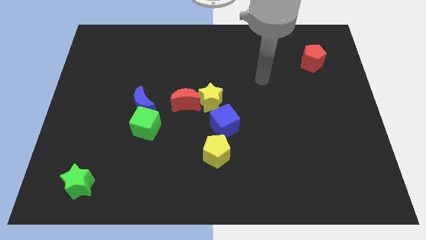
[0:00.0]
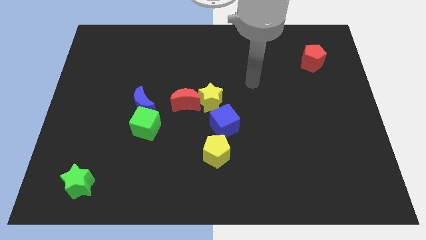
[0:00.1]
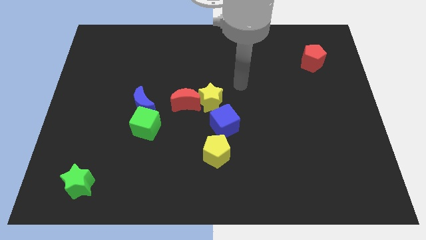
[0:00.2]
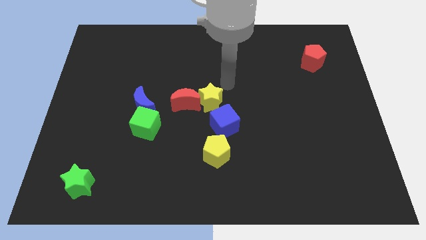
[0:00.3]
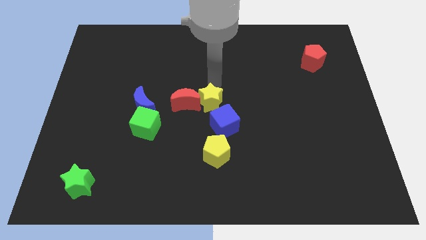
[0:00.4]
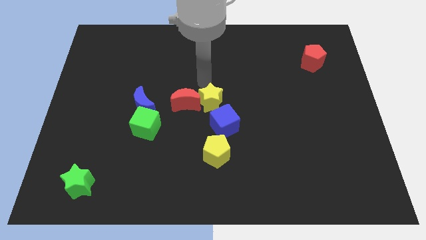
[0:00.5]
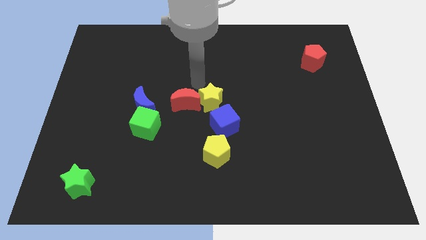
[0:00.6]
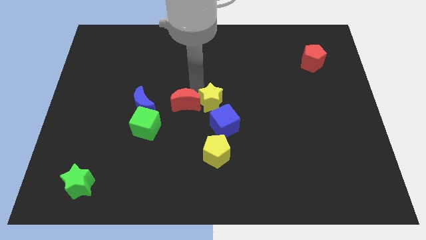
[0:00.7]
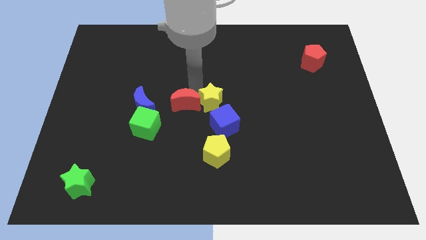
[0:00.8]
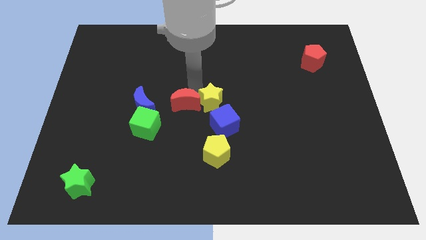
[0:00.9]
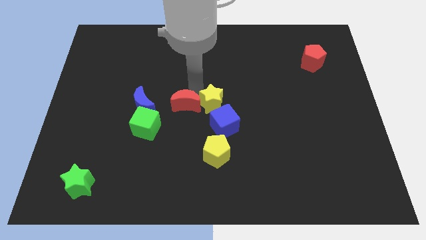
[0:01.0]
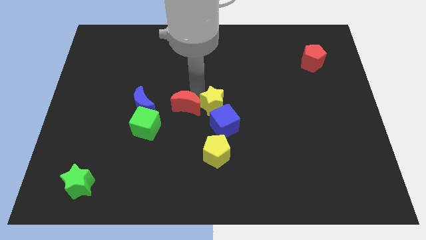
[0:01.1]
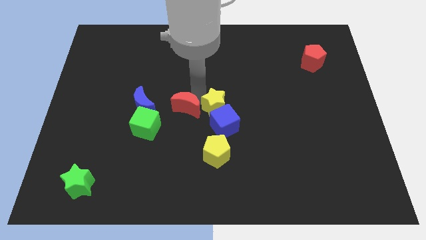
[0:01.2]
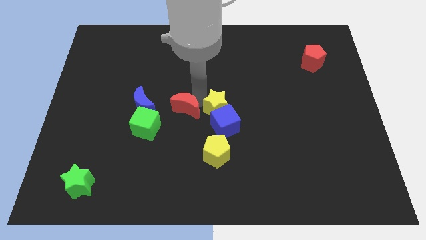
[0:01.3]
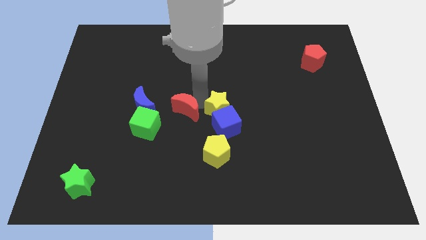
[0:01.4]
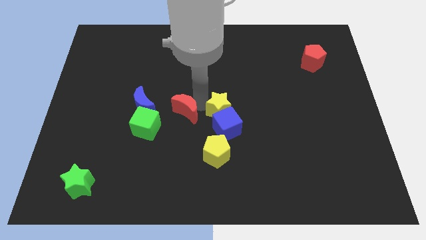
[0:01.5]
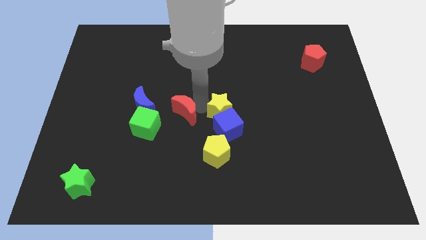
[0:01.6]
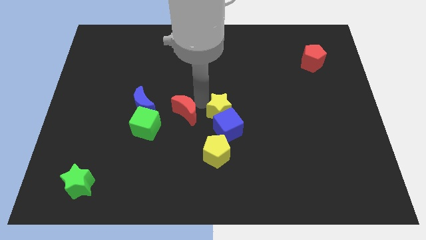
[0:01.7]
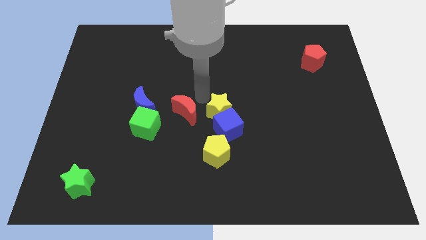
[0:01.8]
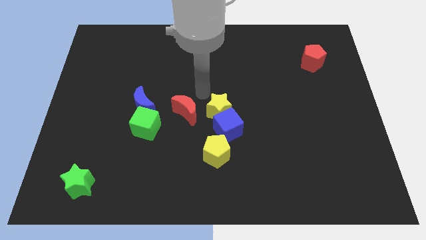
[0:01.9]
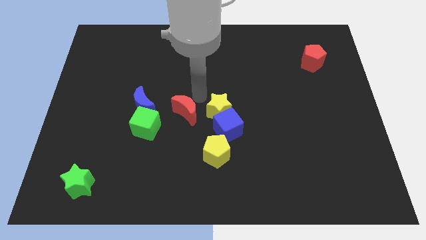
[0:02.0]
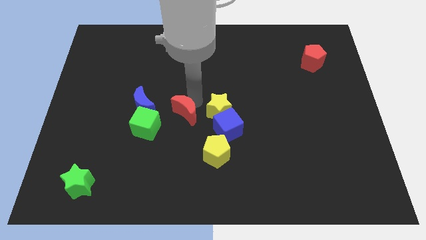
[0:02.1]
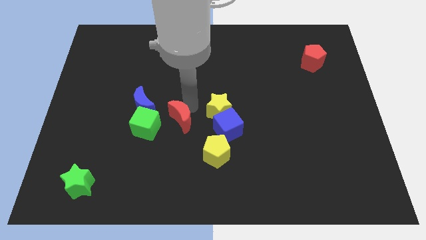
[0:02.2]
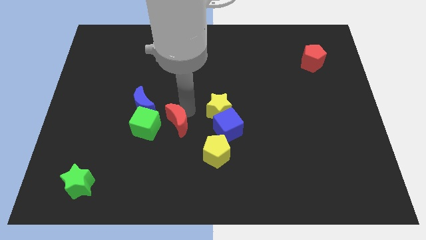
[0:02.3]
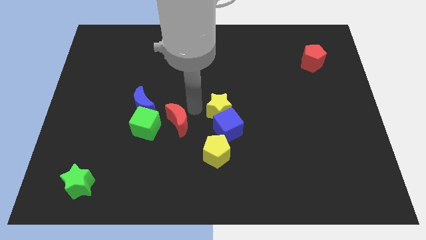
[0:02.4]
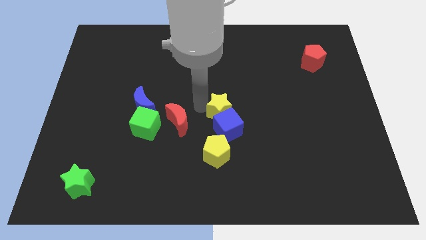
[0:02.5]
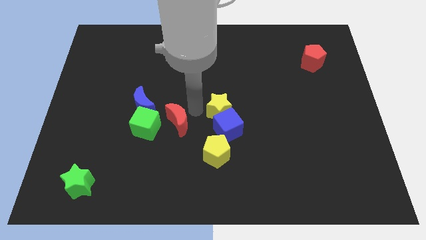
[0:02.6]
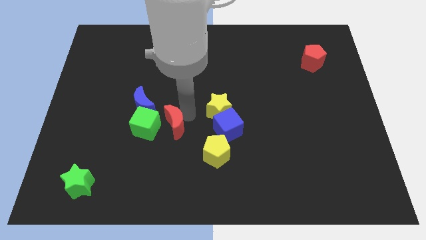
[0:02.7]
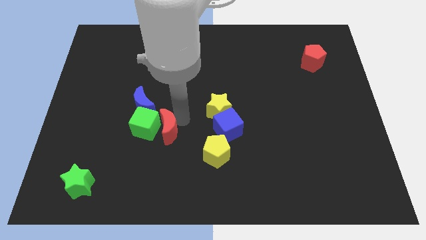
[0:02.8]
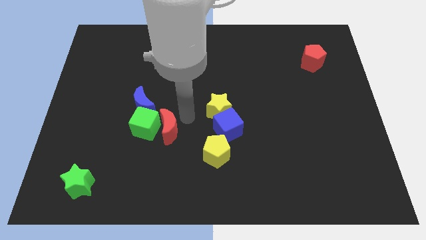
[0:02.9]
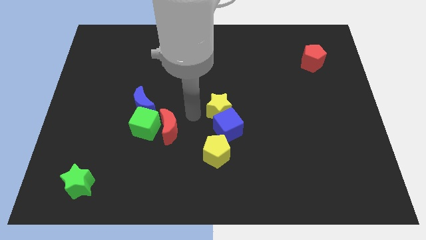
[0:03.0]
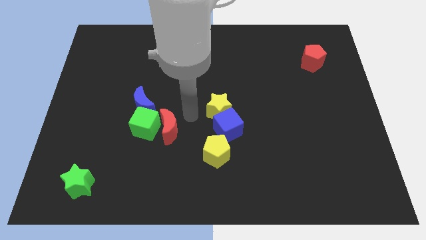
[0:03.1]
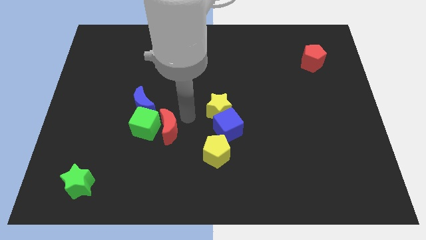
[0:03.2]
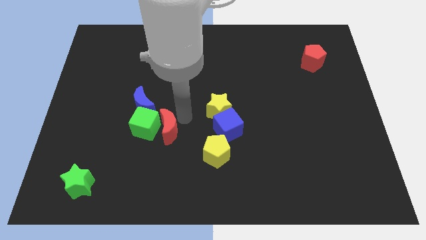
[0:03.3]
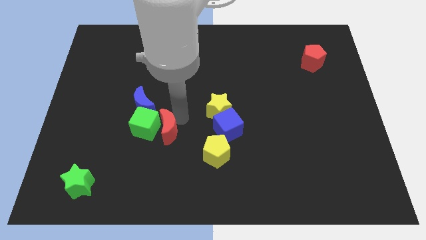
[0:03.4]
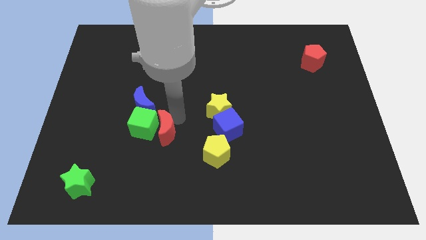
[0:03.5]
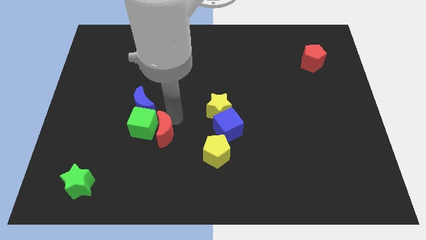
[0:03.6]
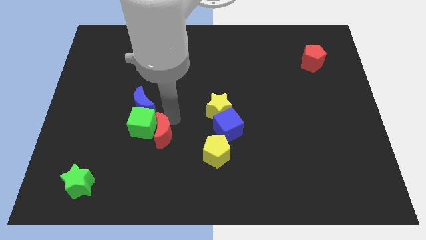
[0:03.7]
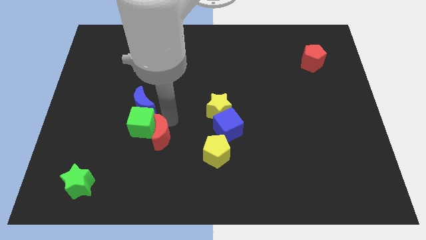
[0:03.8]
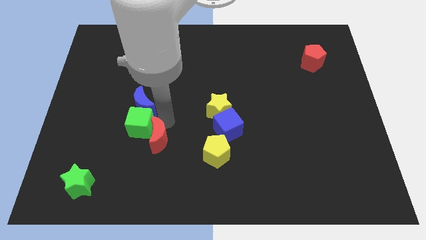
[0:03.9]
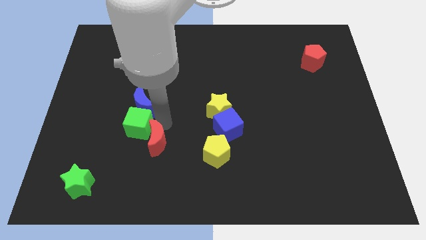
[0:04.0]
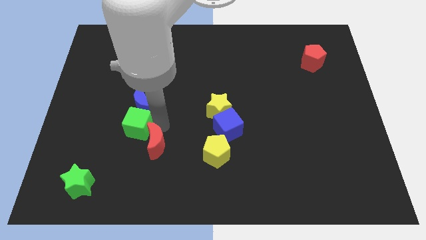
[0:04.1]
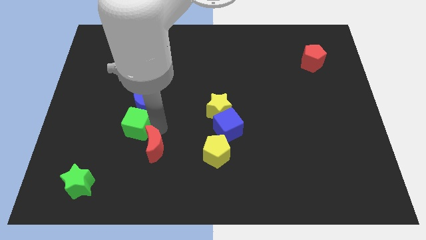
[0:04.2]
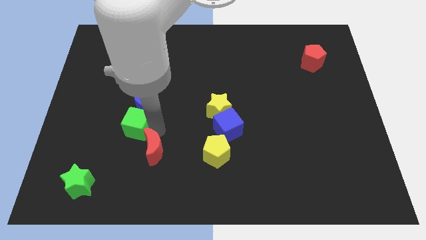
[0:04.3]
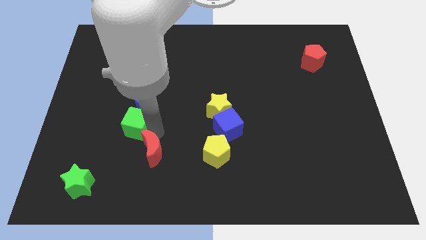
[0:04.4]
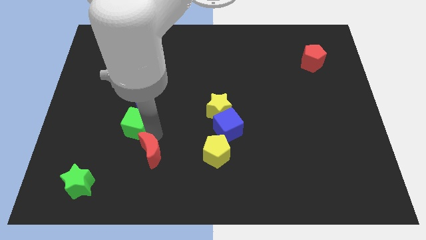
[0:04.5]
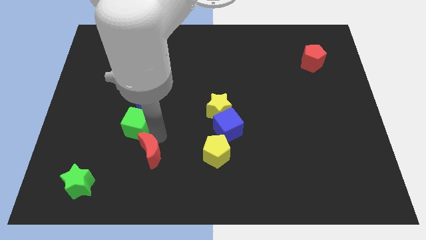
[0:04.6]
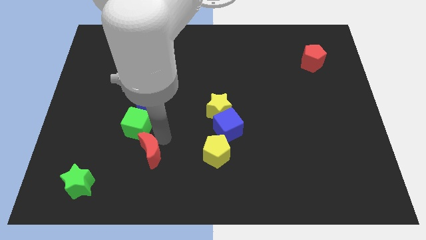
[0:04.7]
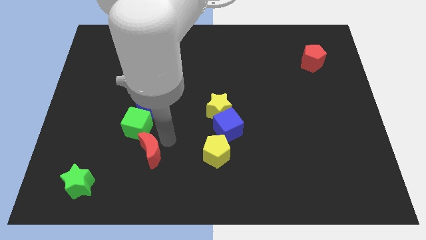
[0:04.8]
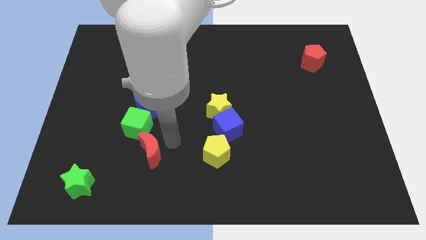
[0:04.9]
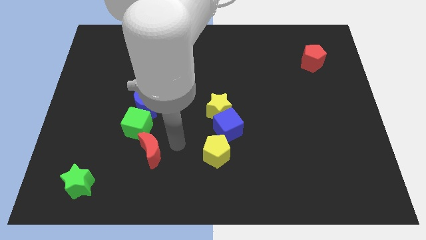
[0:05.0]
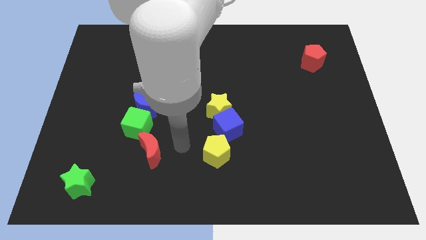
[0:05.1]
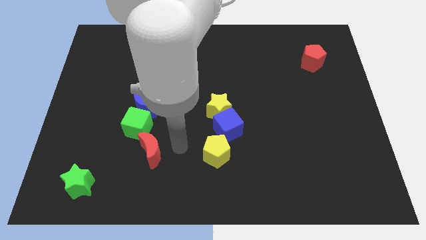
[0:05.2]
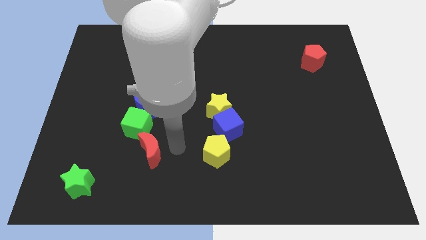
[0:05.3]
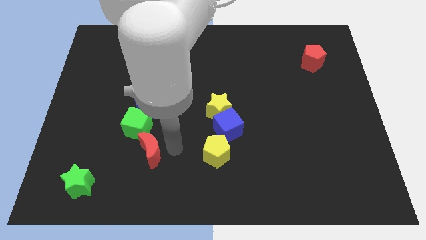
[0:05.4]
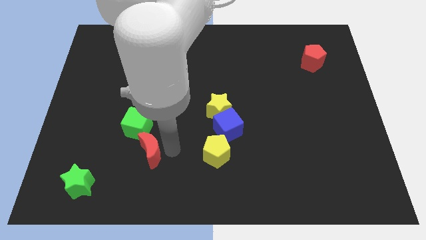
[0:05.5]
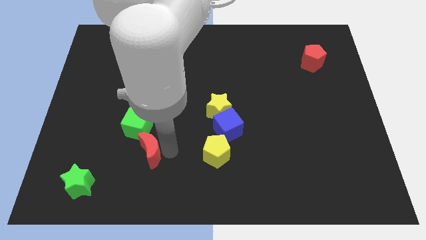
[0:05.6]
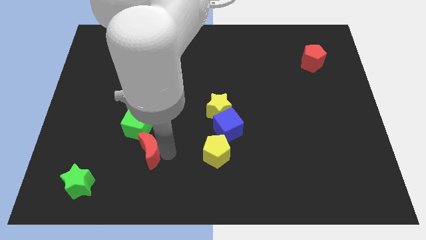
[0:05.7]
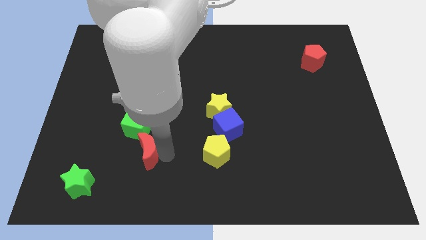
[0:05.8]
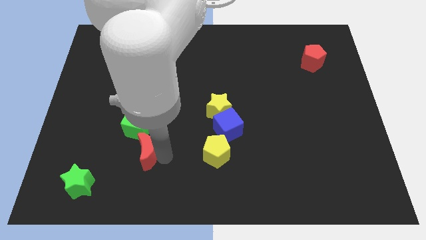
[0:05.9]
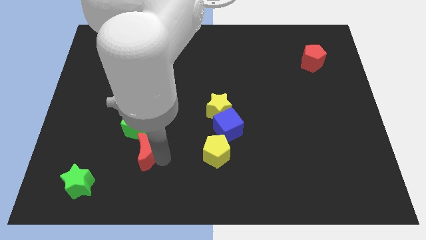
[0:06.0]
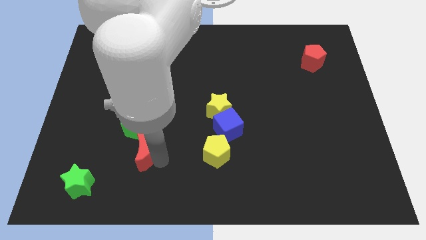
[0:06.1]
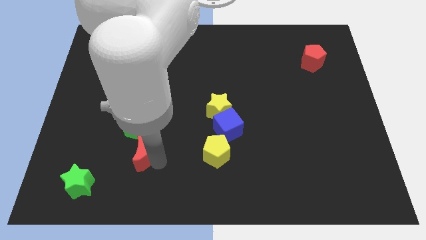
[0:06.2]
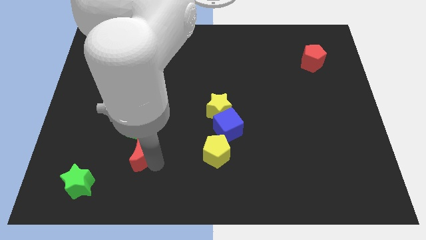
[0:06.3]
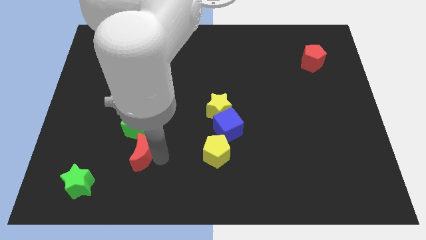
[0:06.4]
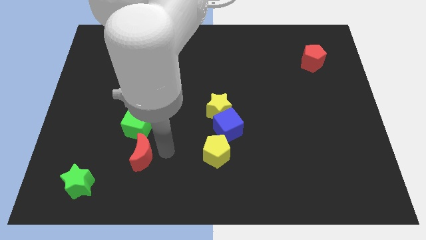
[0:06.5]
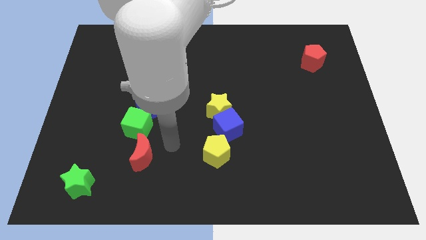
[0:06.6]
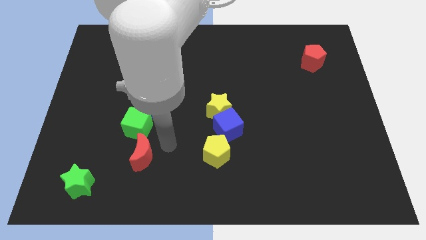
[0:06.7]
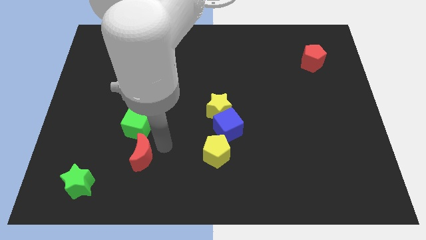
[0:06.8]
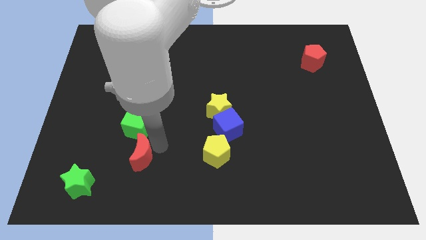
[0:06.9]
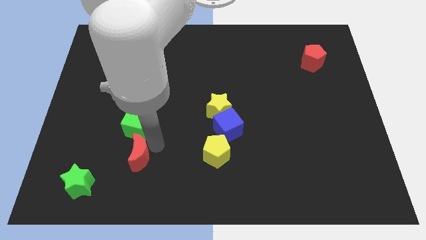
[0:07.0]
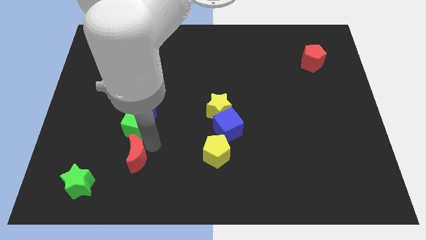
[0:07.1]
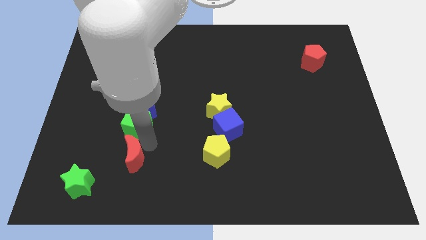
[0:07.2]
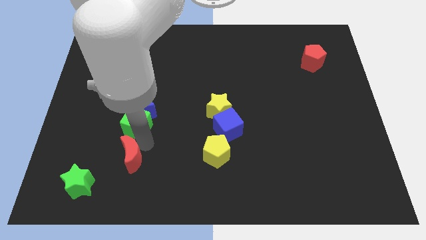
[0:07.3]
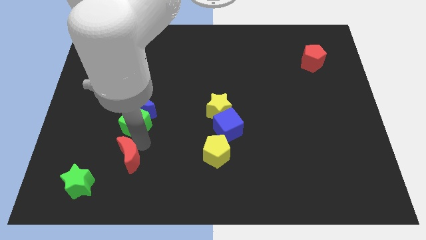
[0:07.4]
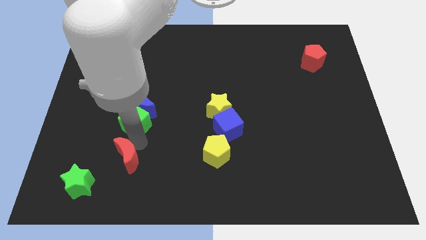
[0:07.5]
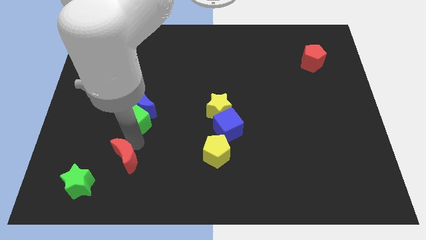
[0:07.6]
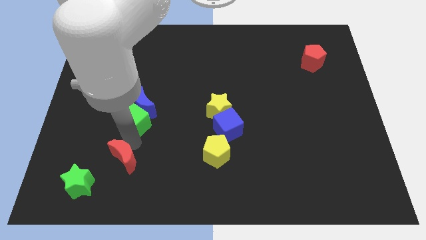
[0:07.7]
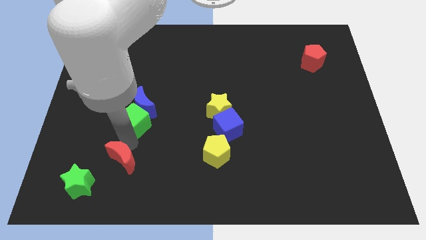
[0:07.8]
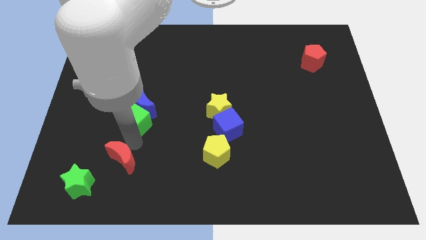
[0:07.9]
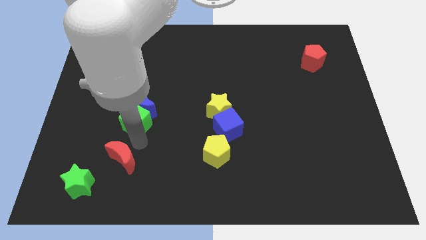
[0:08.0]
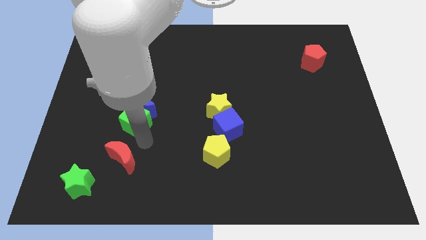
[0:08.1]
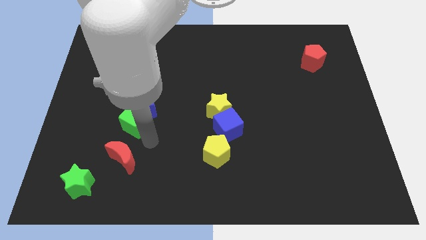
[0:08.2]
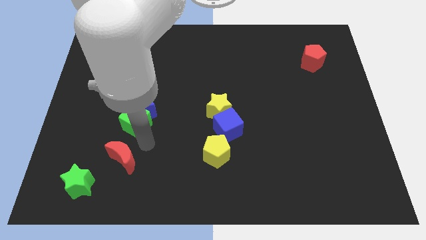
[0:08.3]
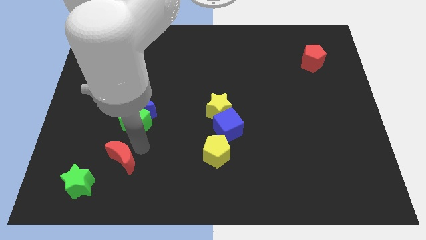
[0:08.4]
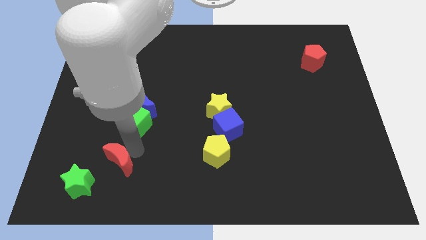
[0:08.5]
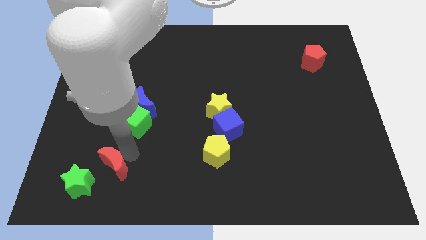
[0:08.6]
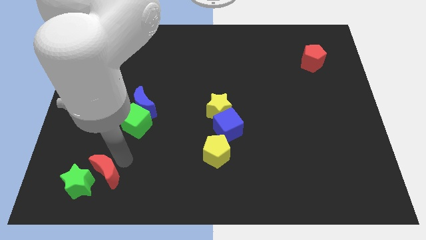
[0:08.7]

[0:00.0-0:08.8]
put the red moon close to the green star
